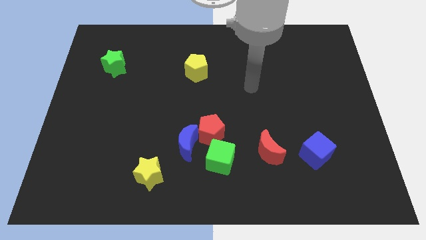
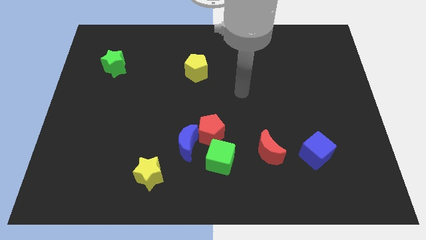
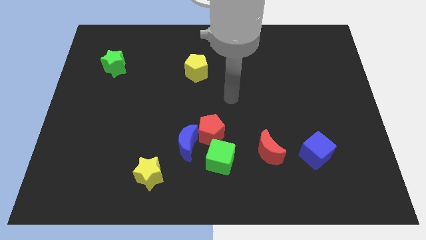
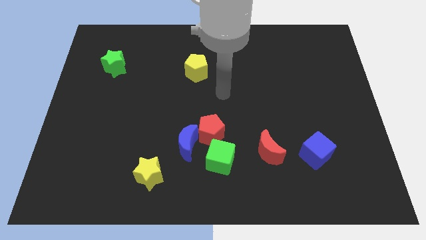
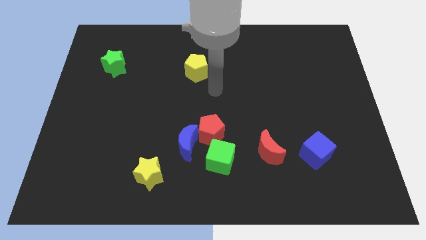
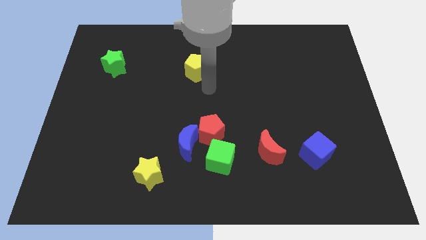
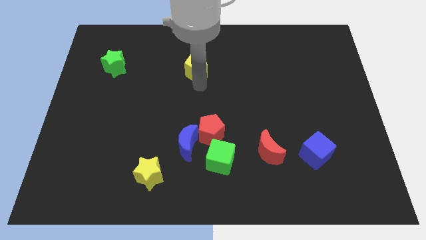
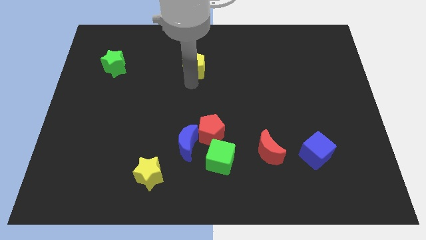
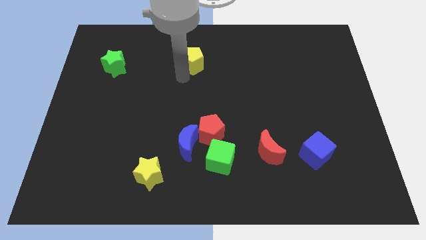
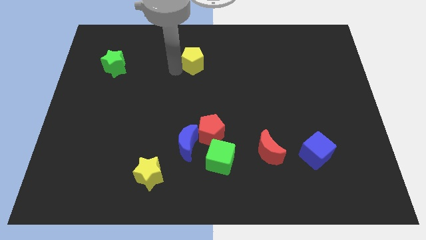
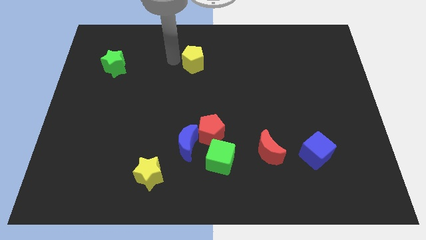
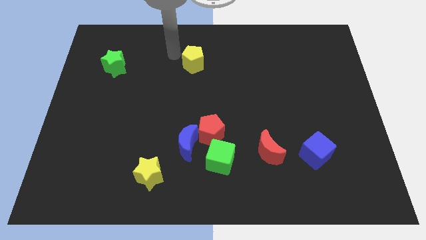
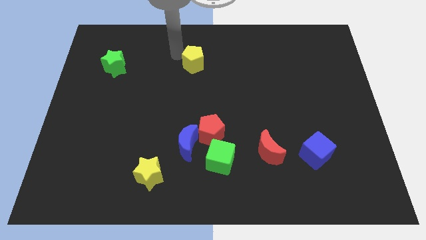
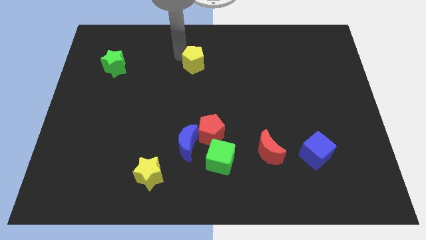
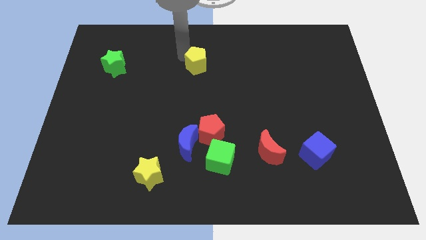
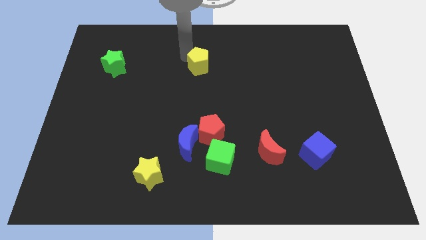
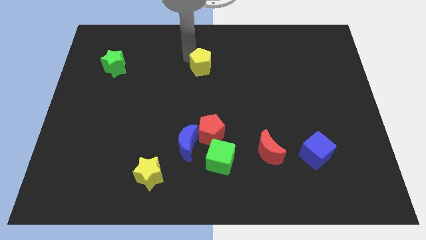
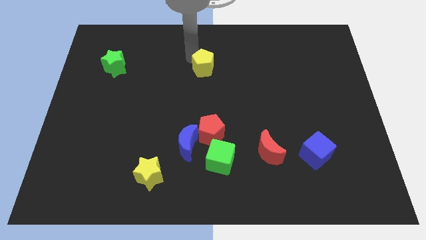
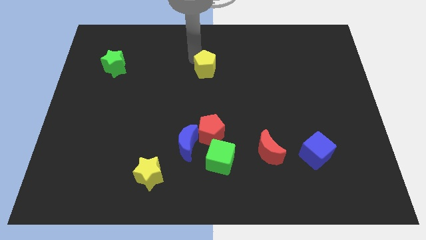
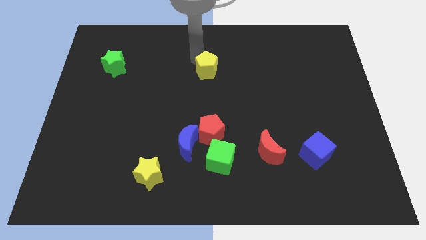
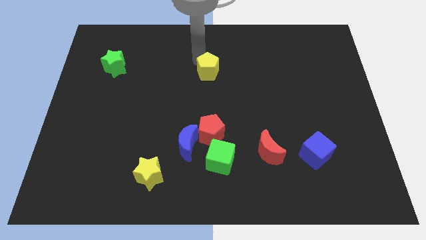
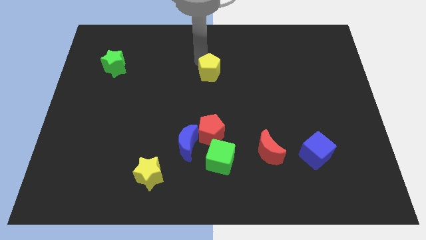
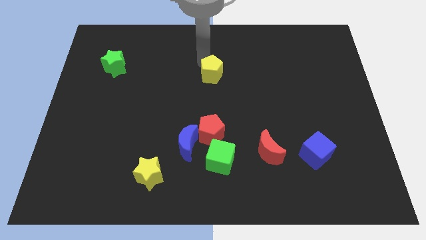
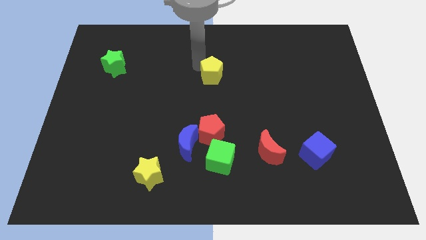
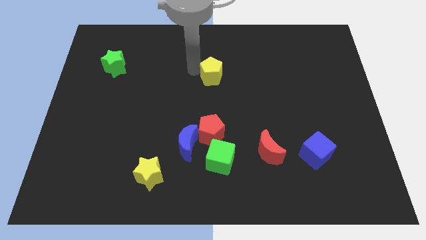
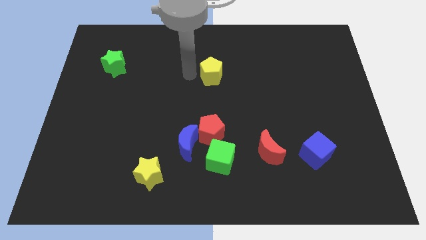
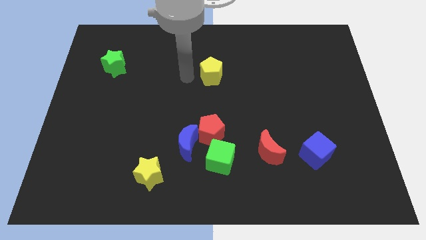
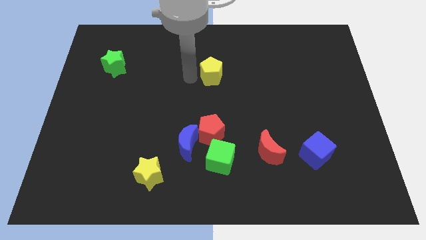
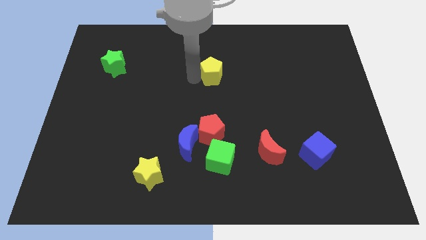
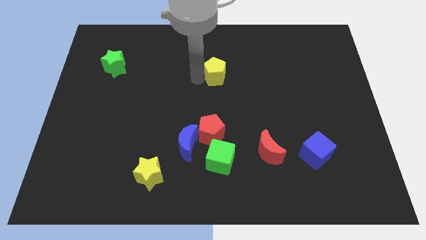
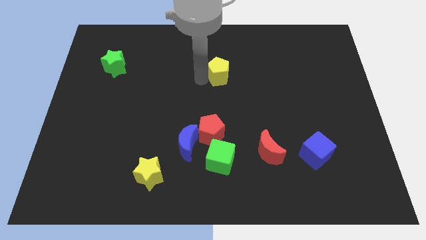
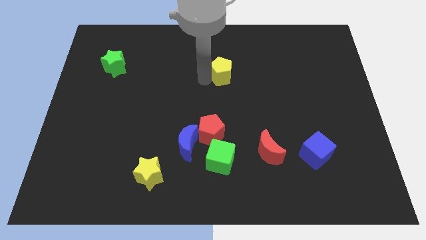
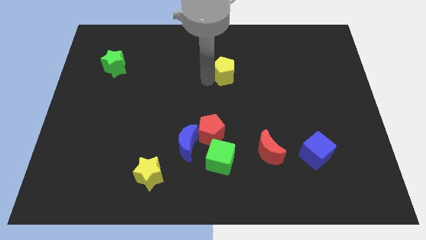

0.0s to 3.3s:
slide the yellow pentagon to the right a little bit

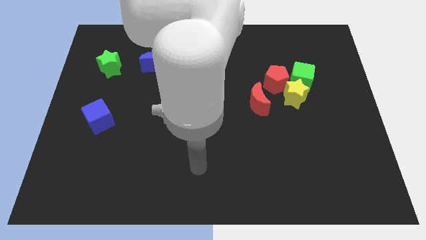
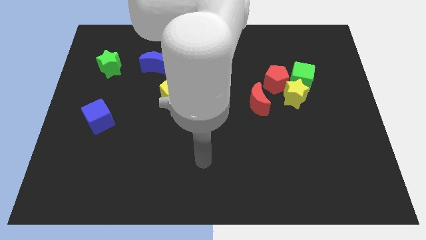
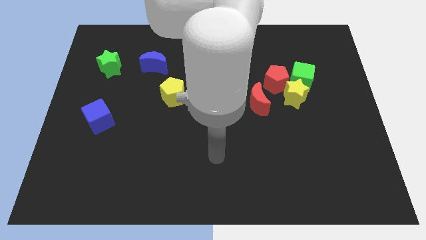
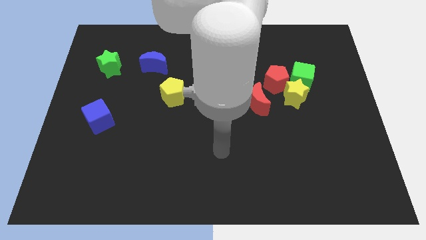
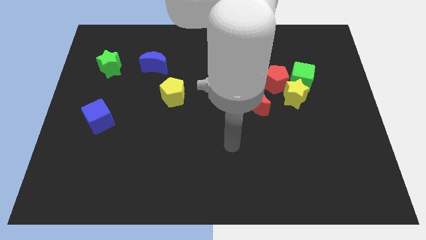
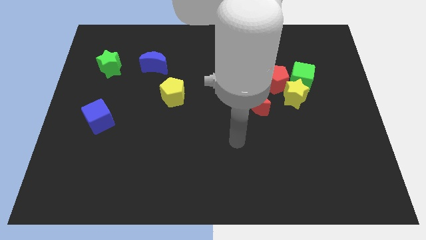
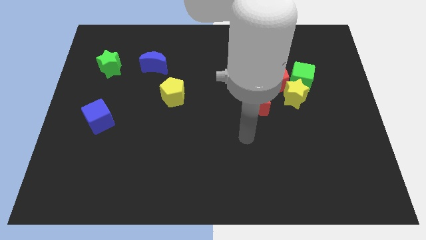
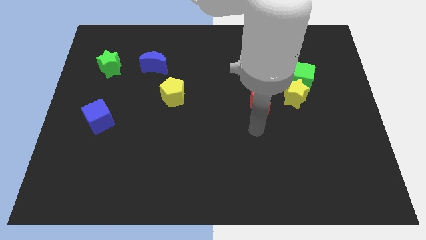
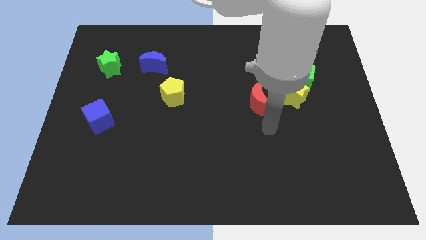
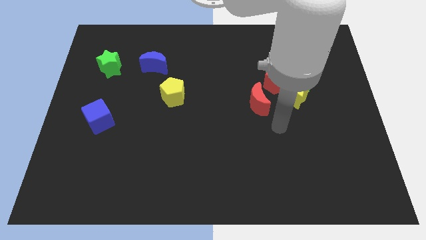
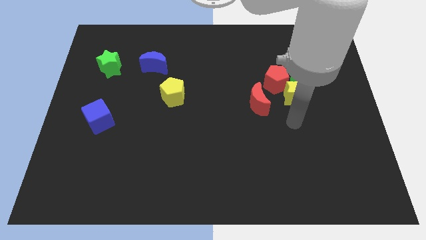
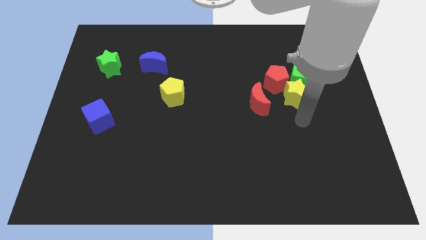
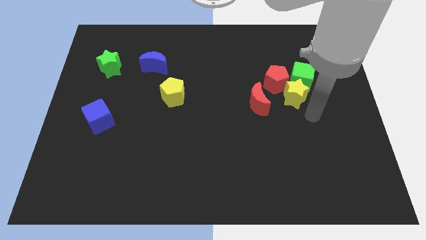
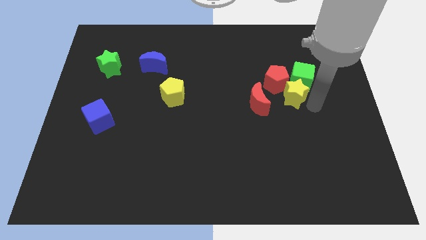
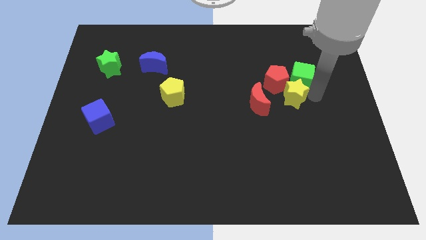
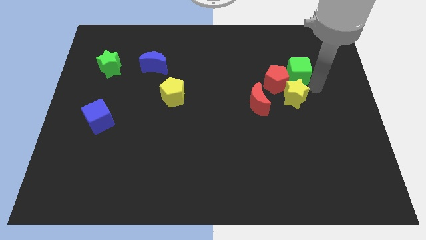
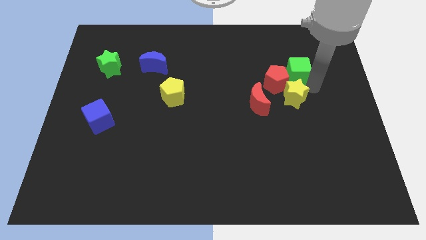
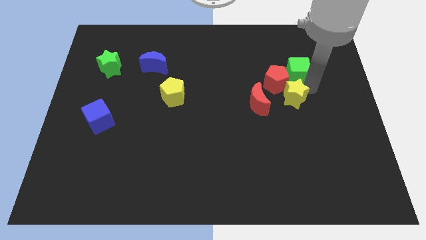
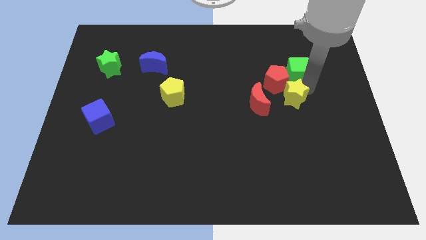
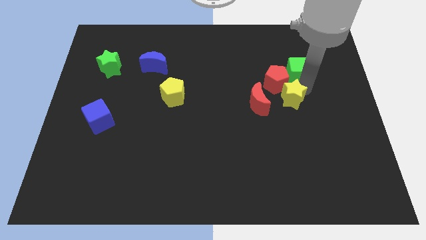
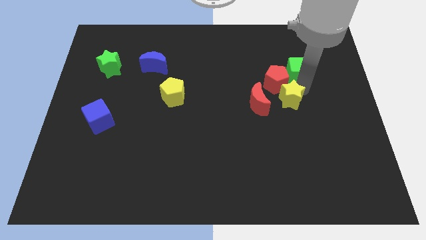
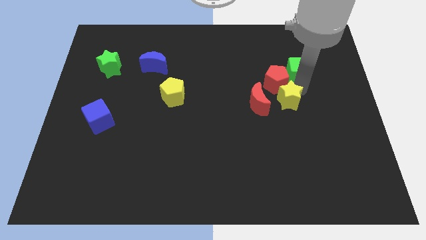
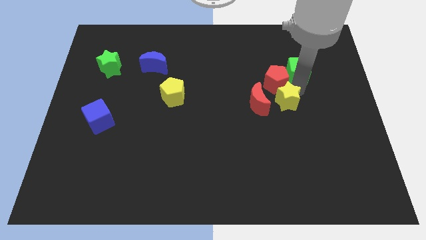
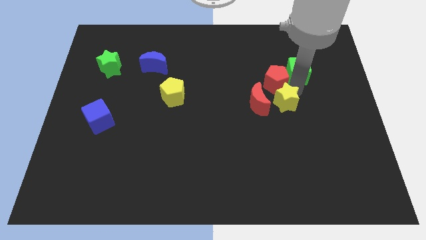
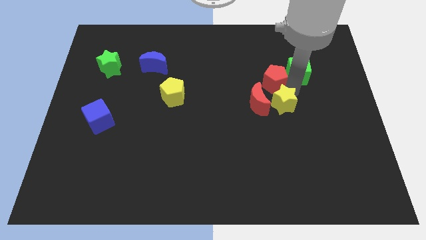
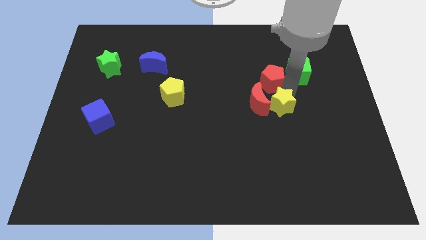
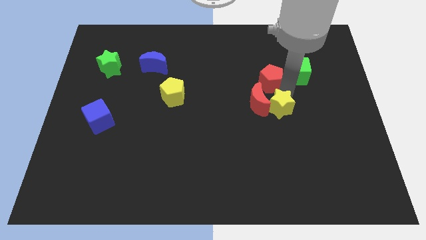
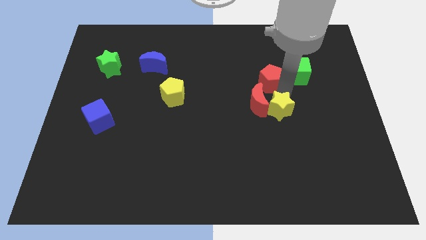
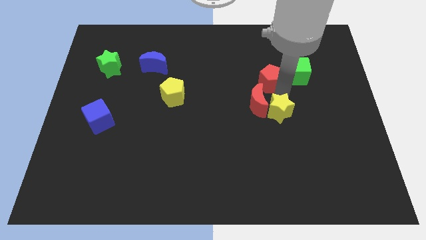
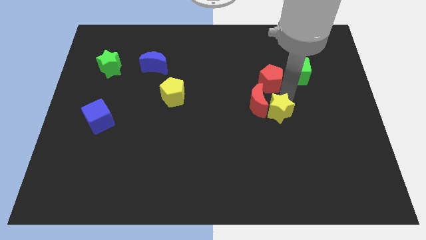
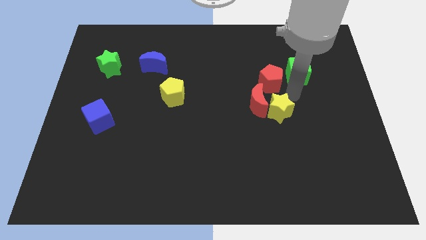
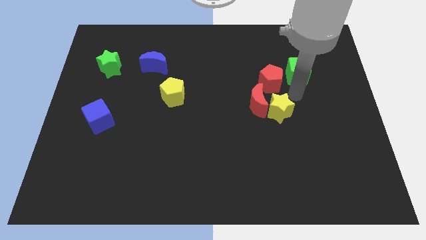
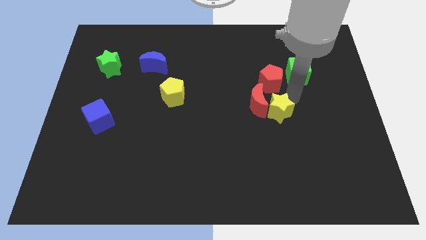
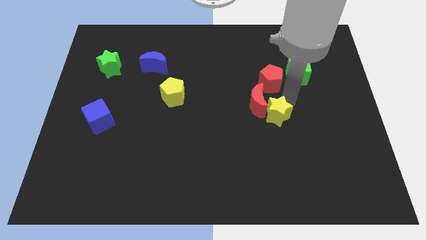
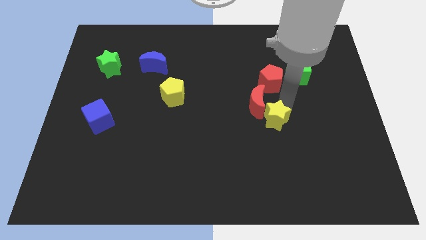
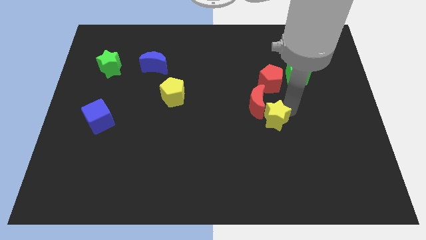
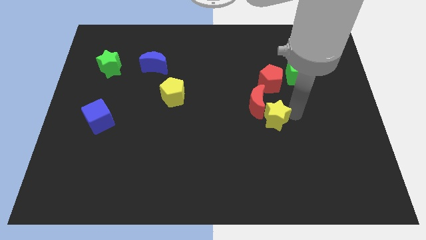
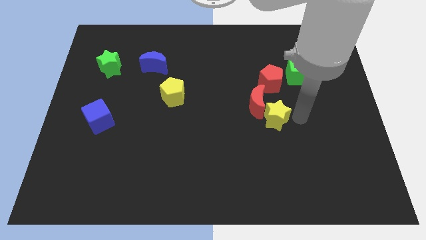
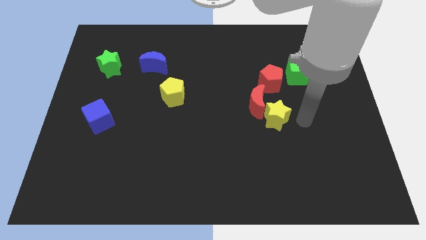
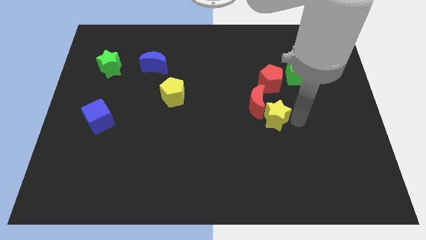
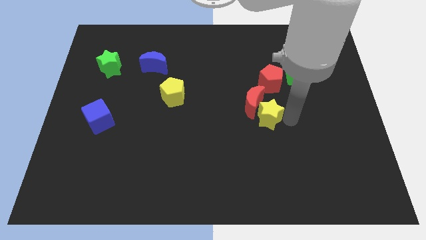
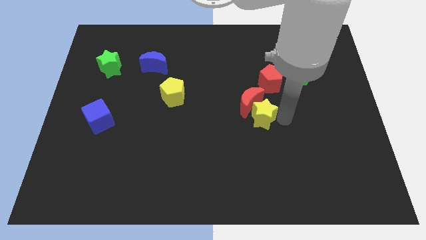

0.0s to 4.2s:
slightly slide the yellow star to the left

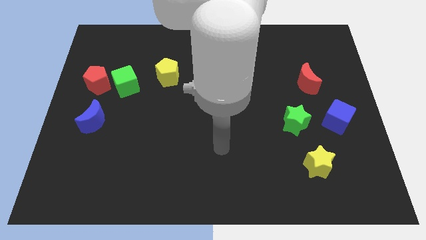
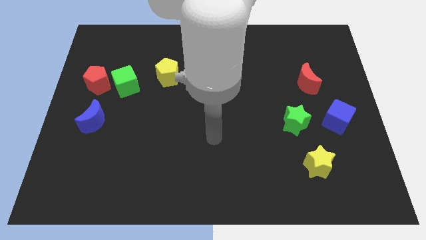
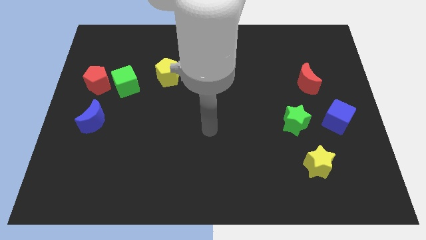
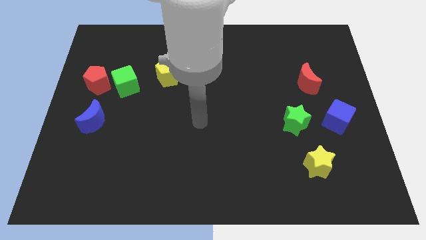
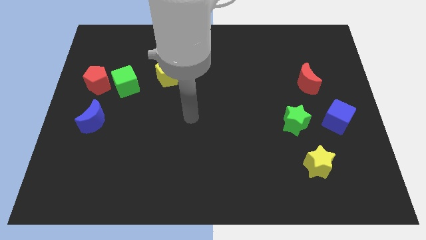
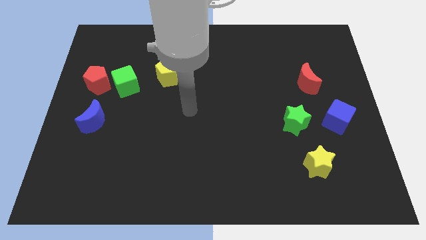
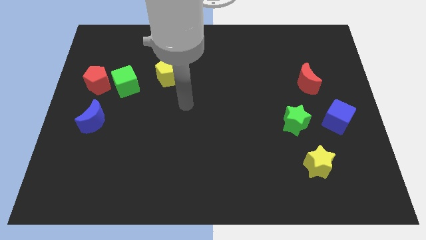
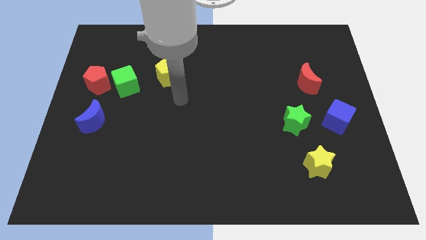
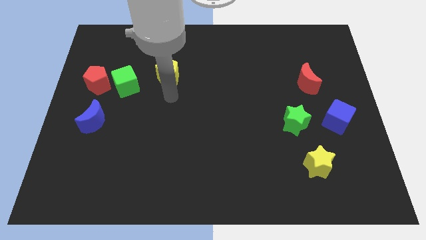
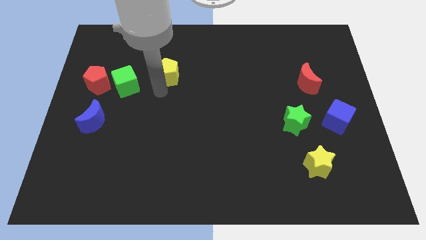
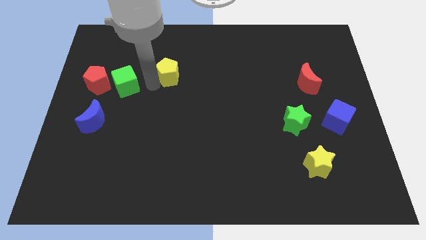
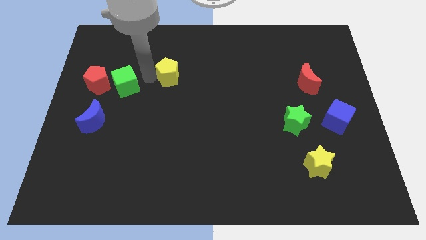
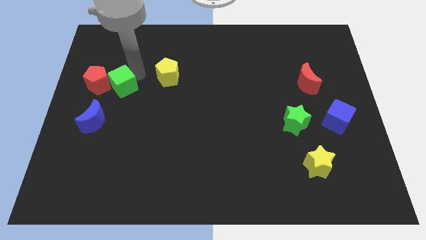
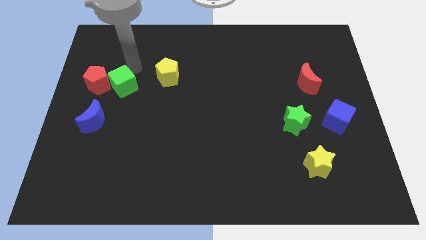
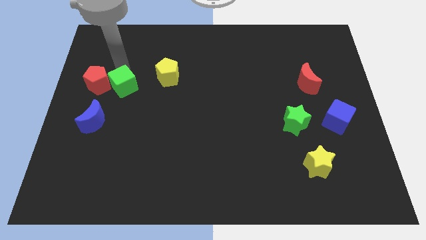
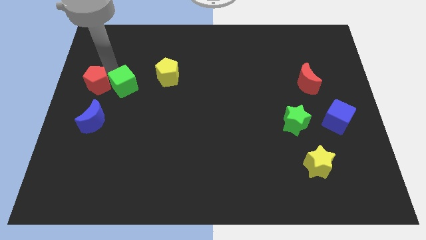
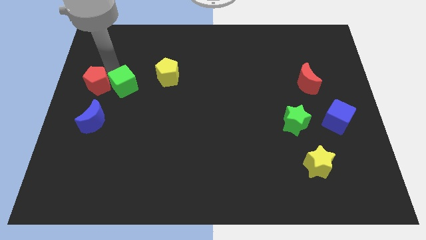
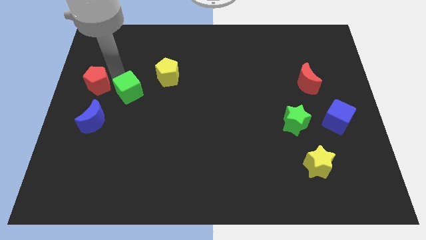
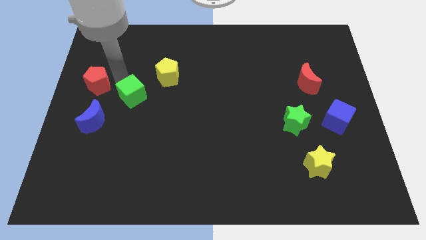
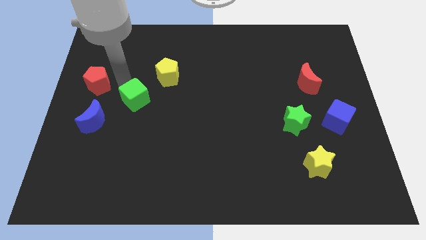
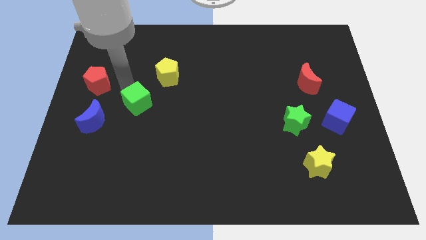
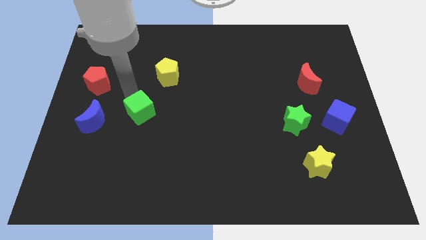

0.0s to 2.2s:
push the green cube a bit down and to the right
